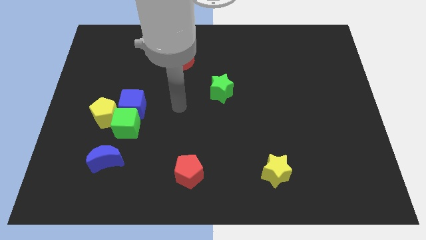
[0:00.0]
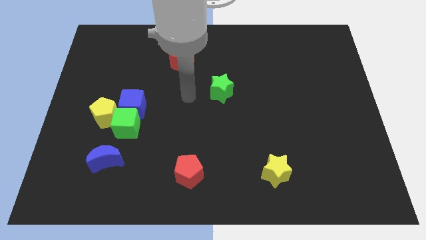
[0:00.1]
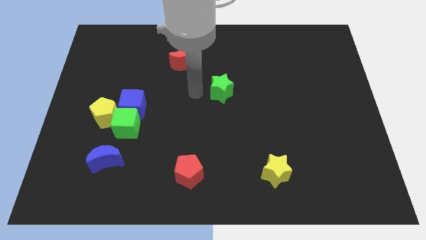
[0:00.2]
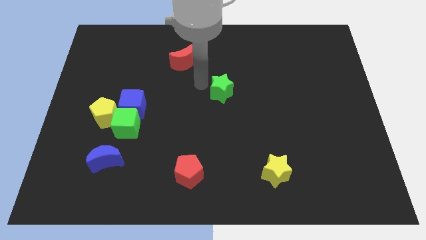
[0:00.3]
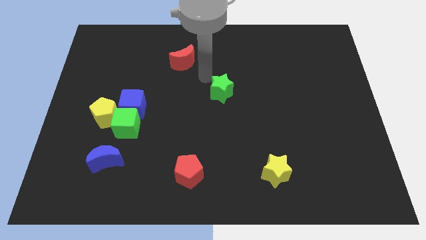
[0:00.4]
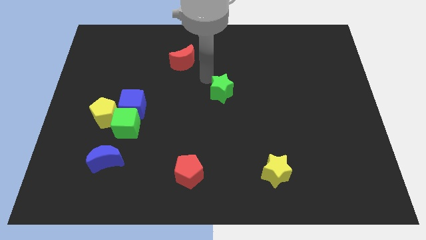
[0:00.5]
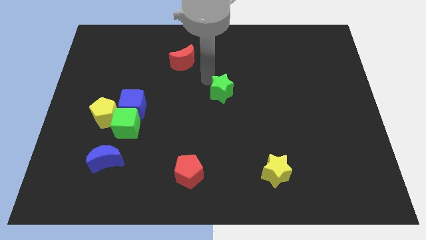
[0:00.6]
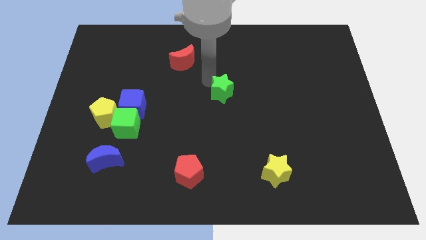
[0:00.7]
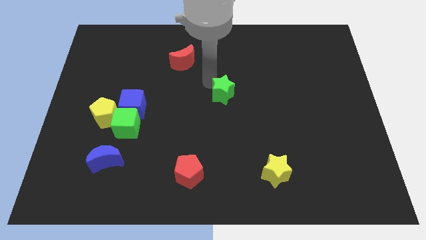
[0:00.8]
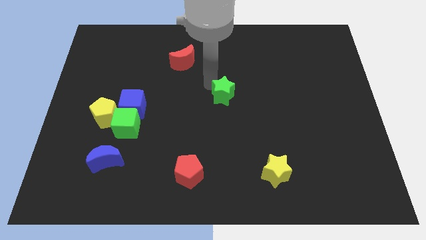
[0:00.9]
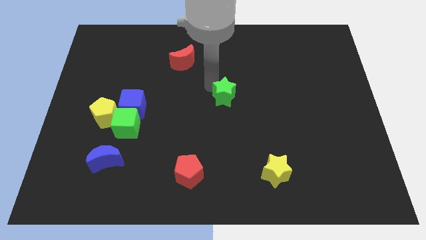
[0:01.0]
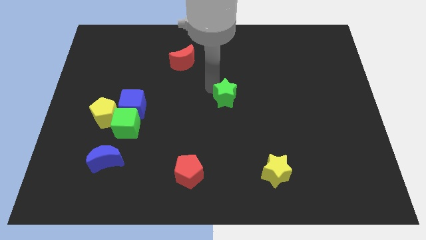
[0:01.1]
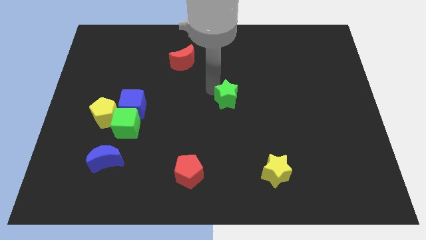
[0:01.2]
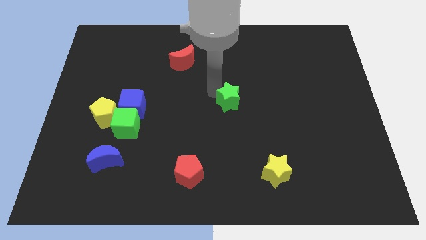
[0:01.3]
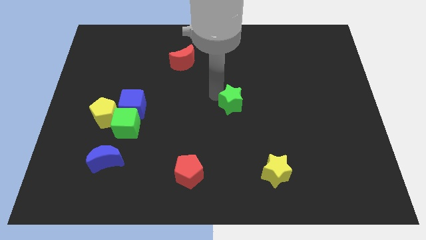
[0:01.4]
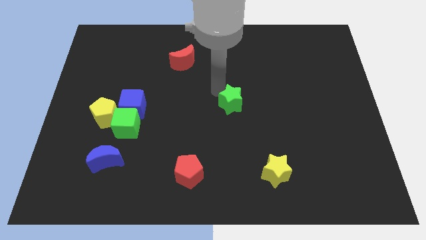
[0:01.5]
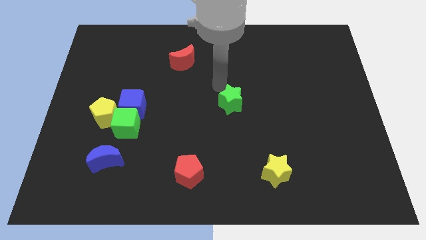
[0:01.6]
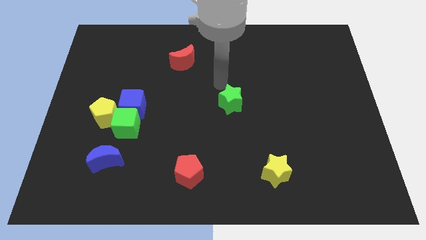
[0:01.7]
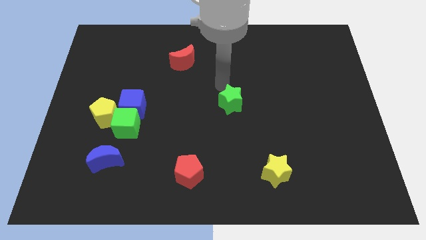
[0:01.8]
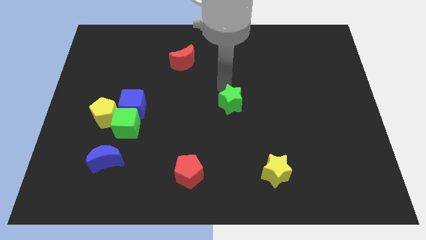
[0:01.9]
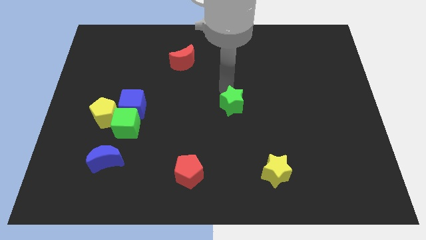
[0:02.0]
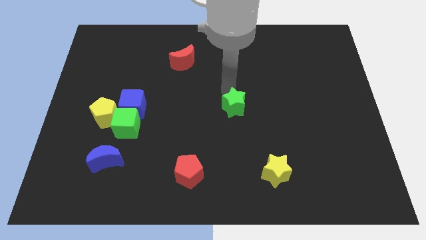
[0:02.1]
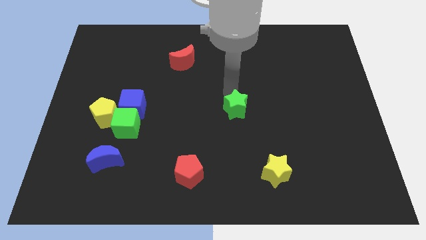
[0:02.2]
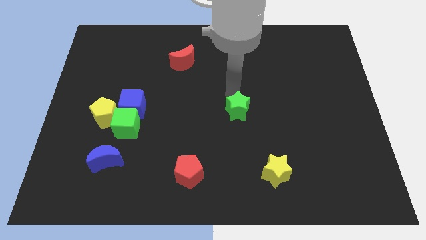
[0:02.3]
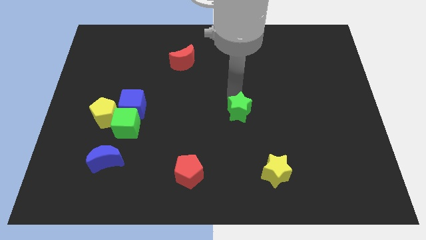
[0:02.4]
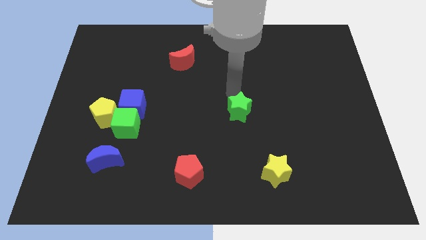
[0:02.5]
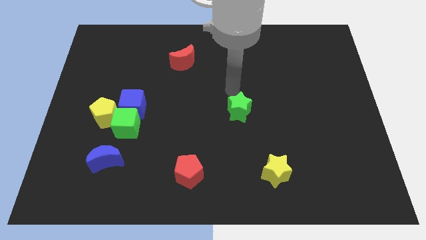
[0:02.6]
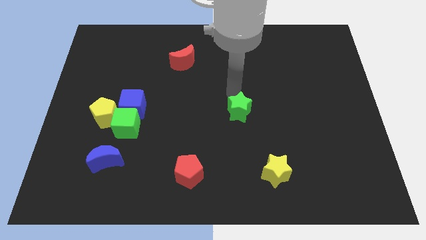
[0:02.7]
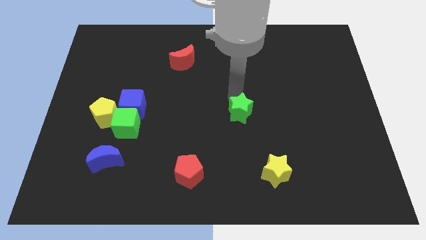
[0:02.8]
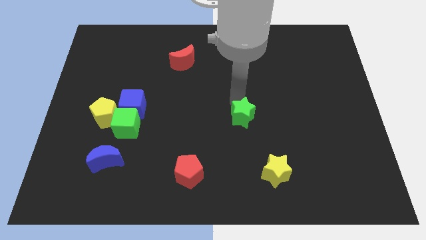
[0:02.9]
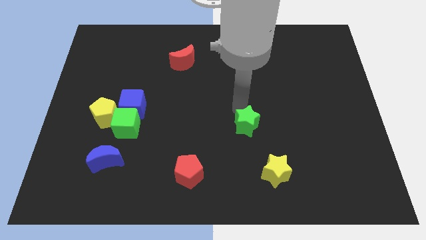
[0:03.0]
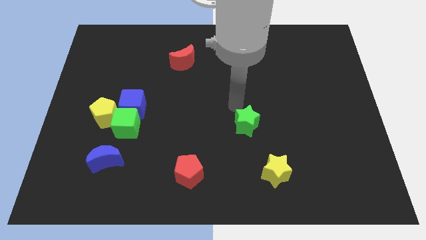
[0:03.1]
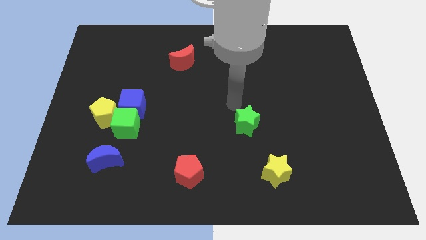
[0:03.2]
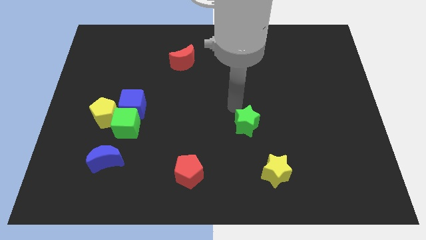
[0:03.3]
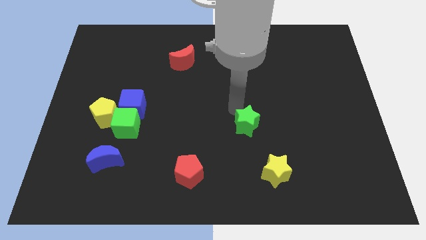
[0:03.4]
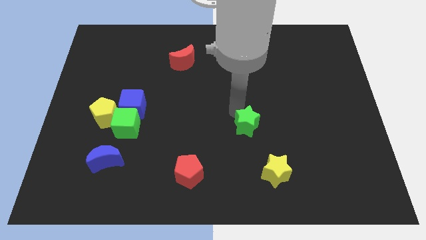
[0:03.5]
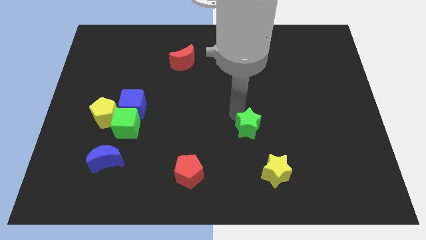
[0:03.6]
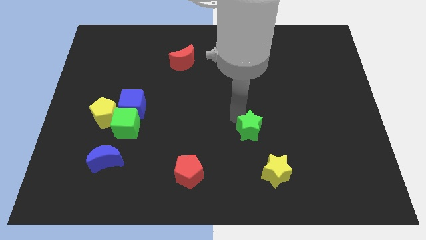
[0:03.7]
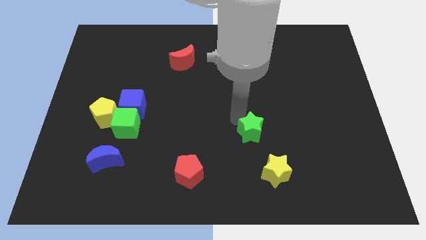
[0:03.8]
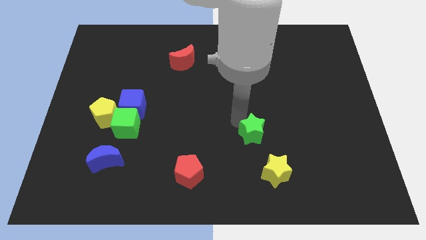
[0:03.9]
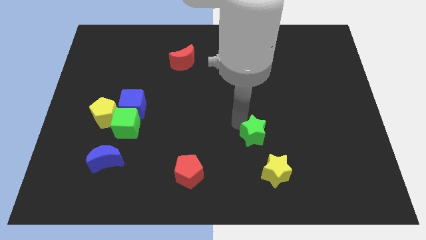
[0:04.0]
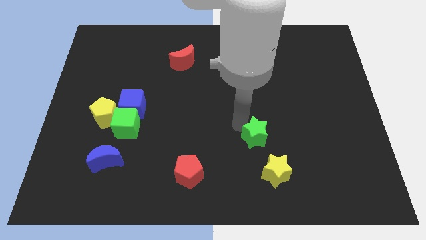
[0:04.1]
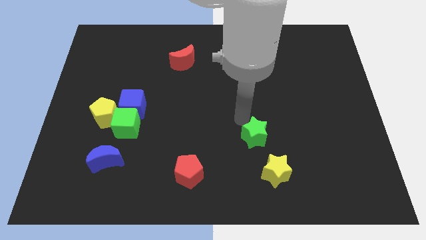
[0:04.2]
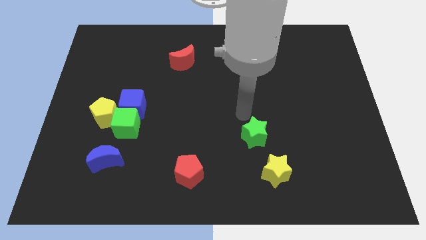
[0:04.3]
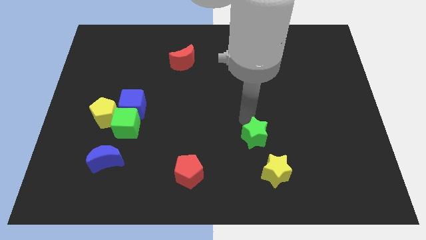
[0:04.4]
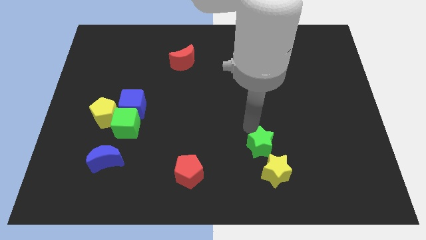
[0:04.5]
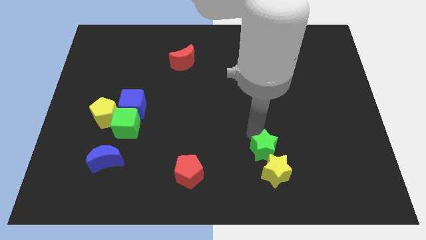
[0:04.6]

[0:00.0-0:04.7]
push the green star close to the yellow star

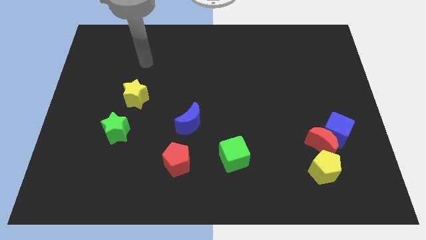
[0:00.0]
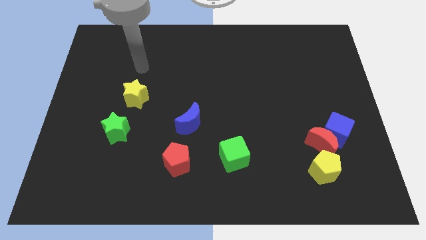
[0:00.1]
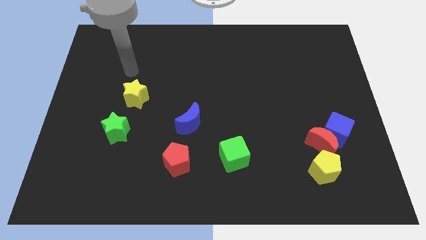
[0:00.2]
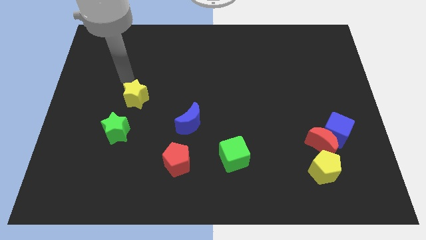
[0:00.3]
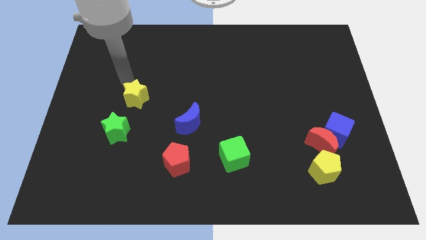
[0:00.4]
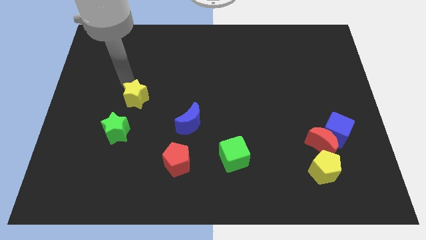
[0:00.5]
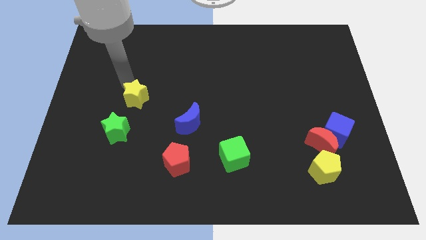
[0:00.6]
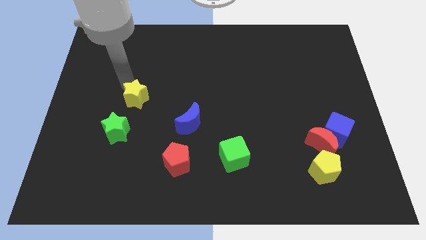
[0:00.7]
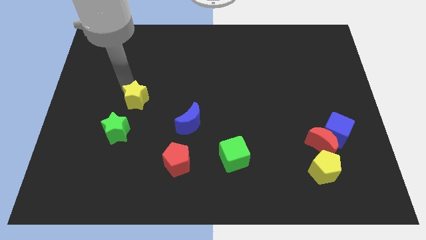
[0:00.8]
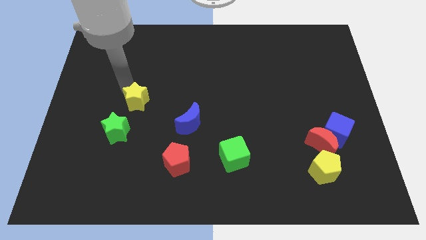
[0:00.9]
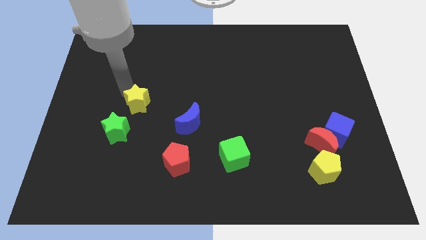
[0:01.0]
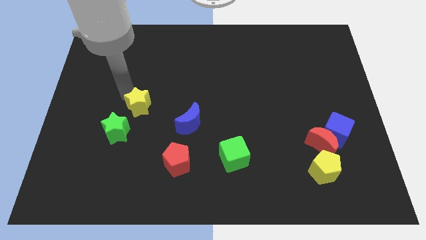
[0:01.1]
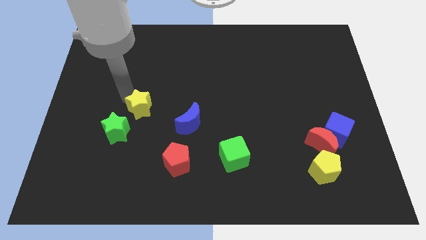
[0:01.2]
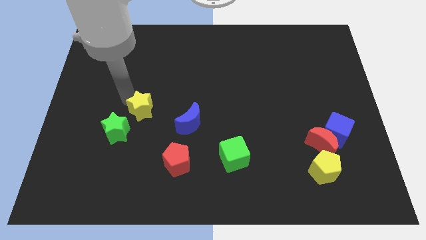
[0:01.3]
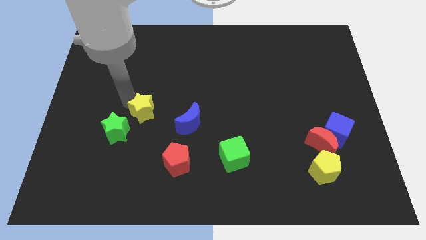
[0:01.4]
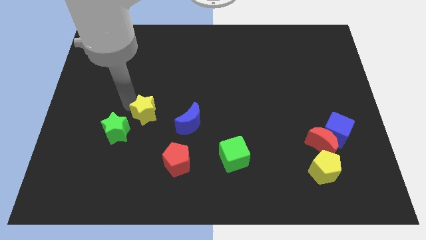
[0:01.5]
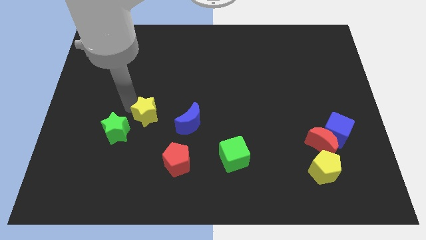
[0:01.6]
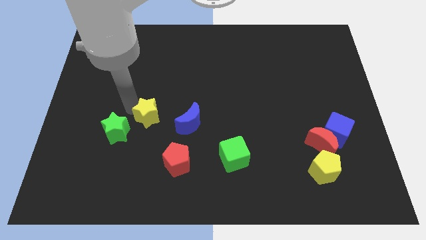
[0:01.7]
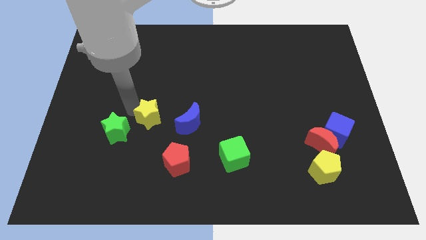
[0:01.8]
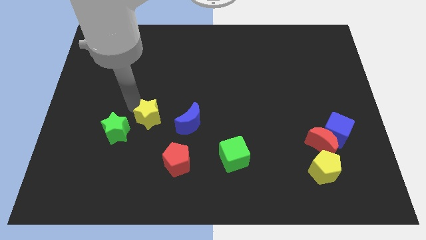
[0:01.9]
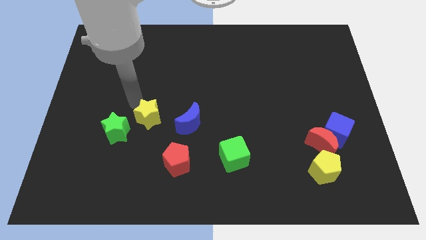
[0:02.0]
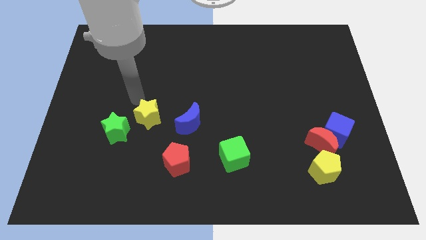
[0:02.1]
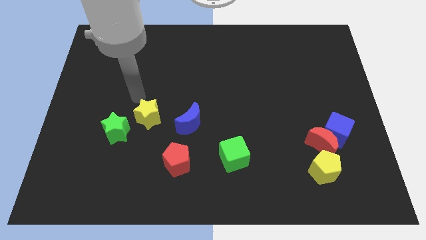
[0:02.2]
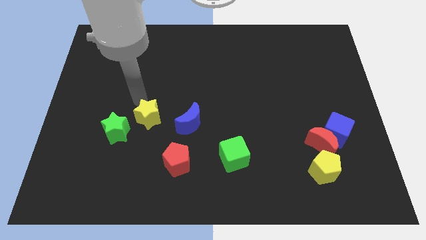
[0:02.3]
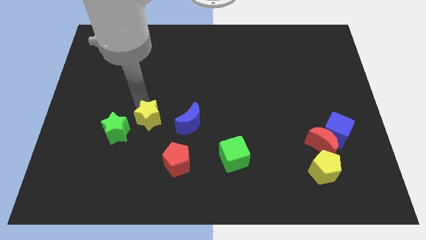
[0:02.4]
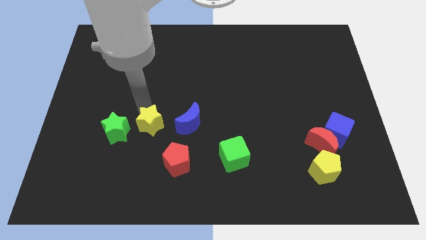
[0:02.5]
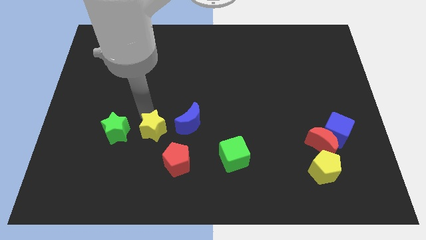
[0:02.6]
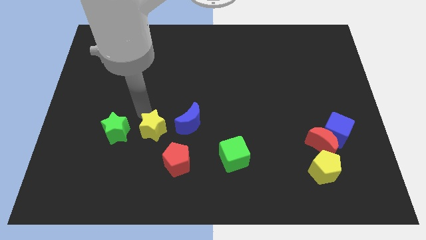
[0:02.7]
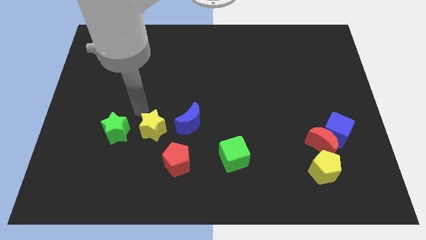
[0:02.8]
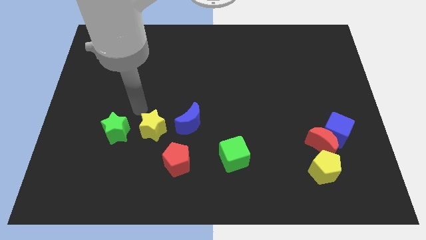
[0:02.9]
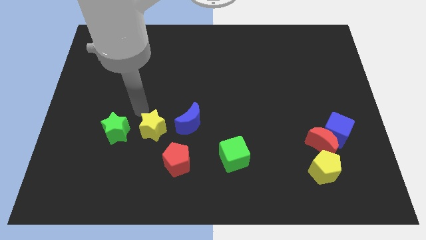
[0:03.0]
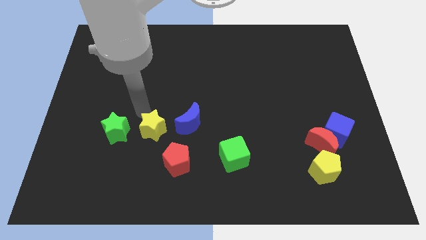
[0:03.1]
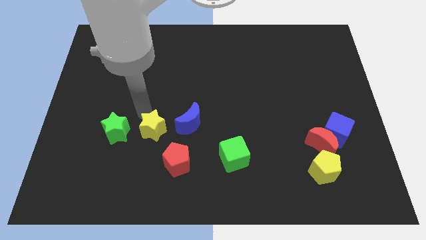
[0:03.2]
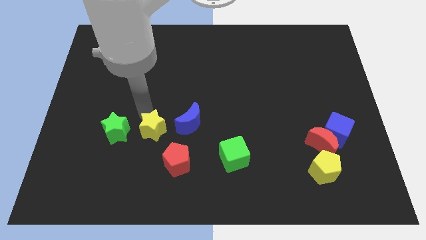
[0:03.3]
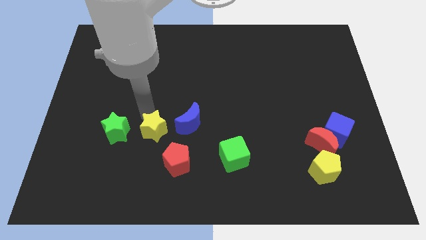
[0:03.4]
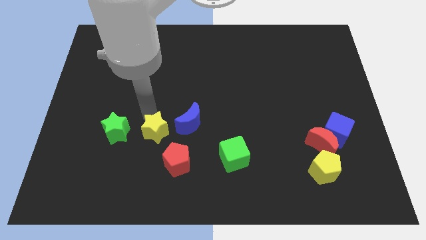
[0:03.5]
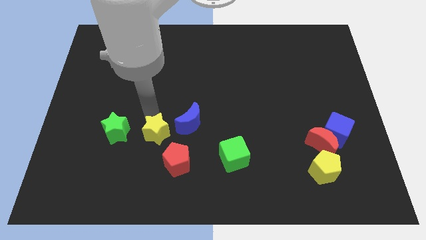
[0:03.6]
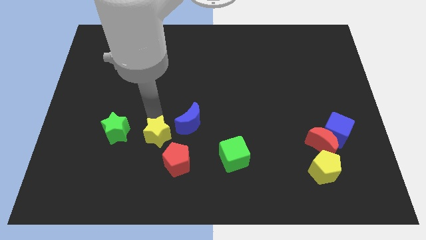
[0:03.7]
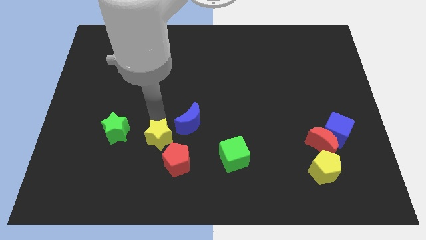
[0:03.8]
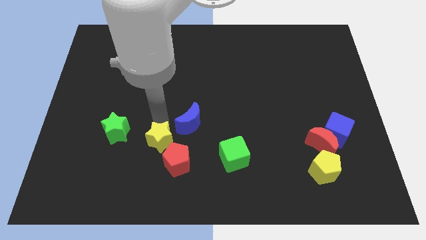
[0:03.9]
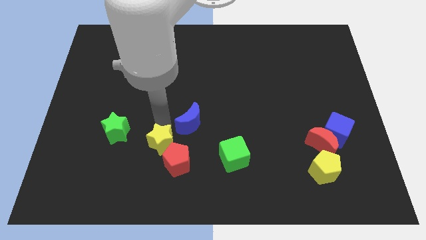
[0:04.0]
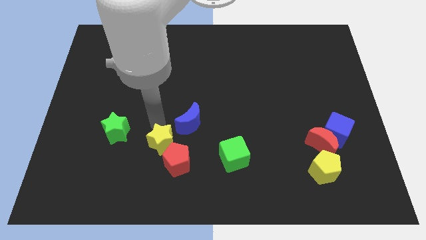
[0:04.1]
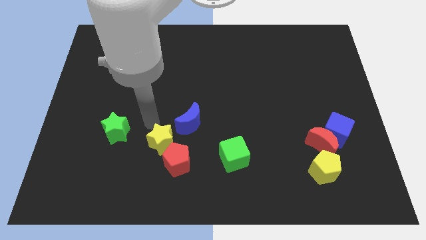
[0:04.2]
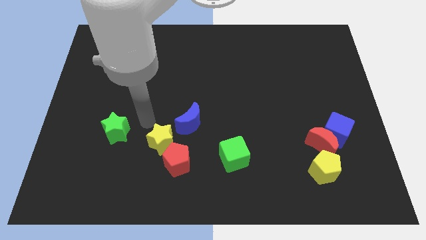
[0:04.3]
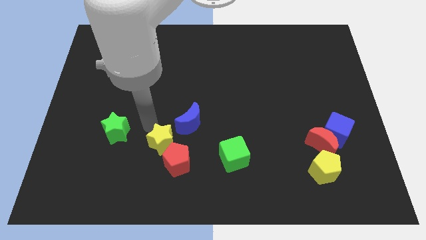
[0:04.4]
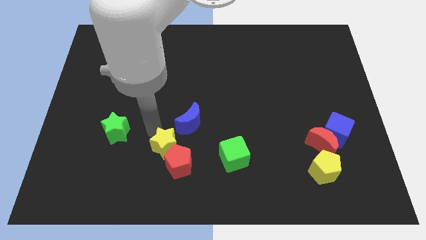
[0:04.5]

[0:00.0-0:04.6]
move the yellow star next to the red pentagon
